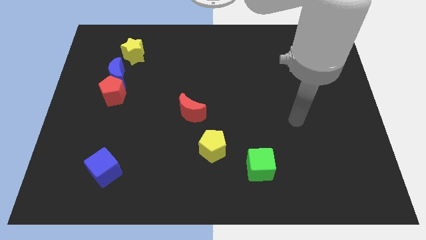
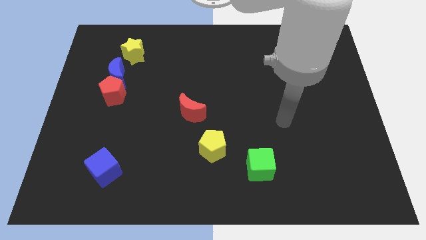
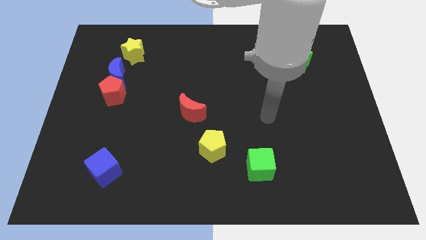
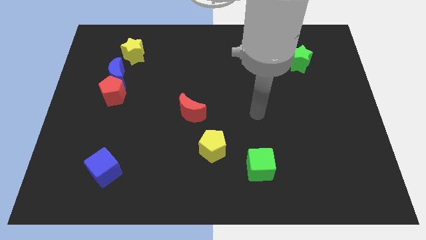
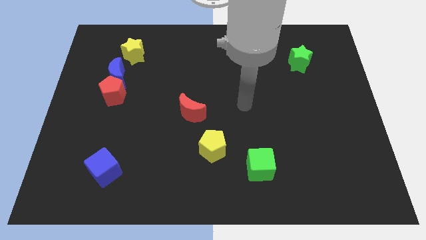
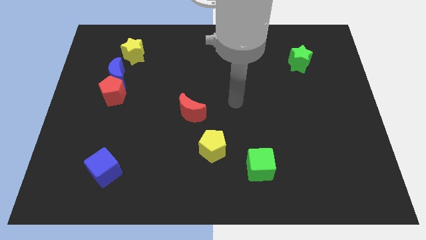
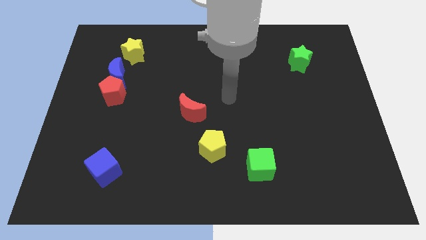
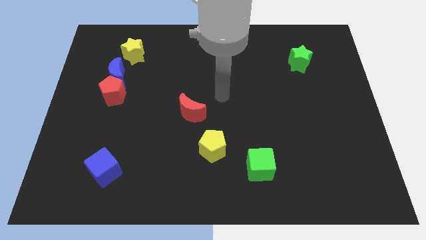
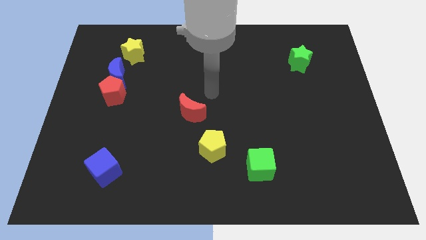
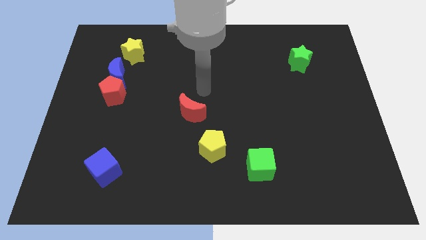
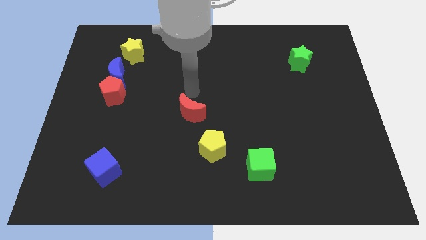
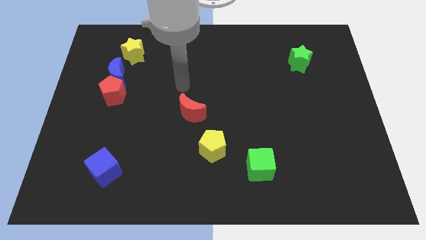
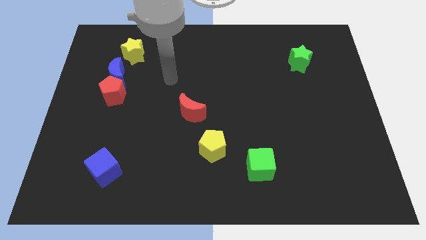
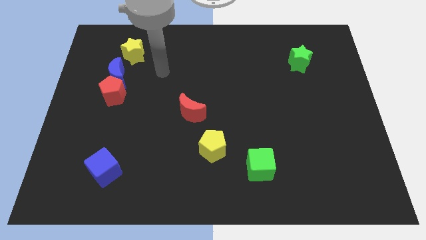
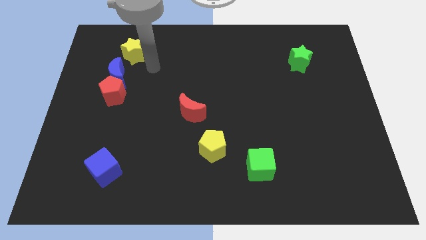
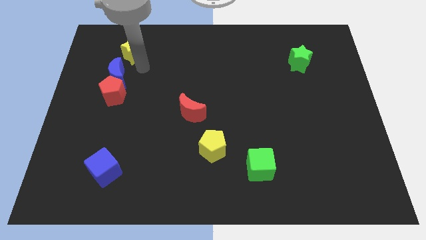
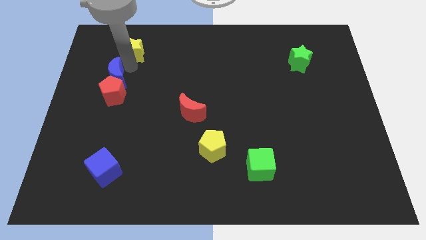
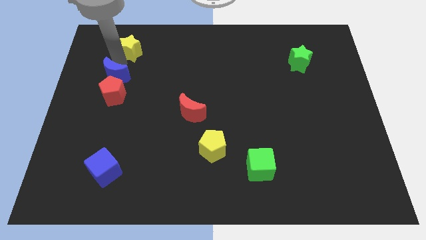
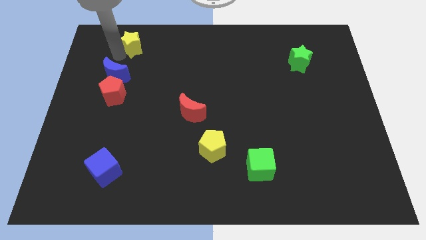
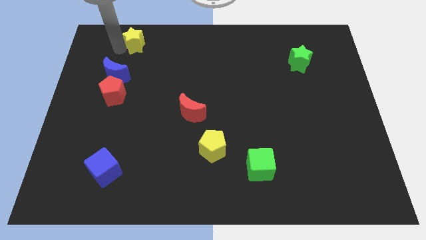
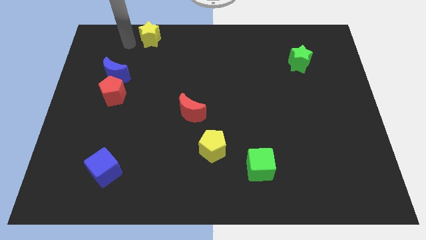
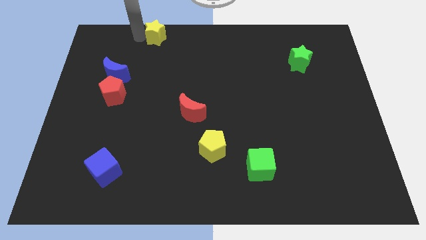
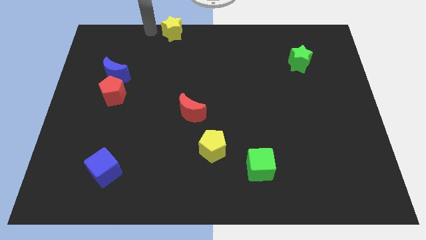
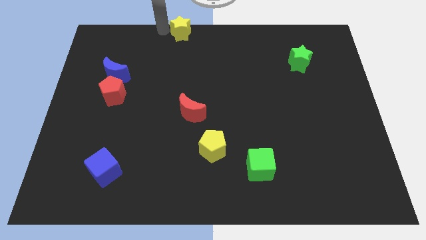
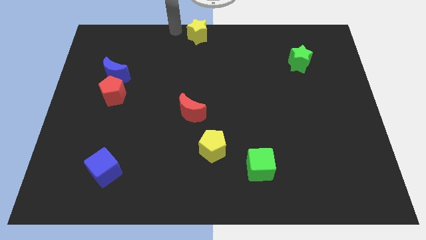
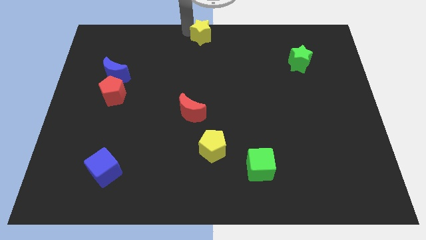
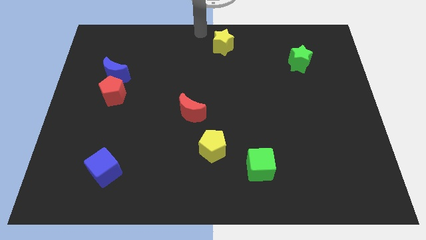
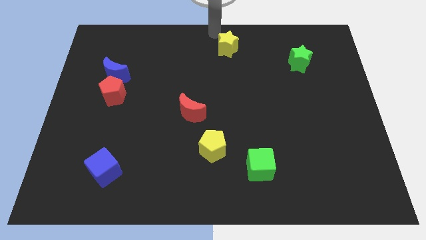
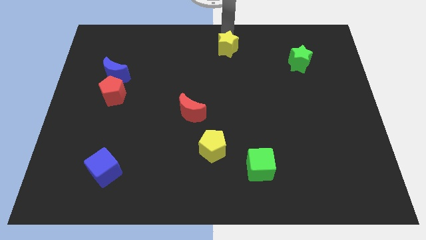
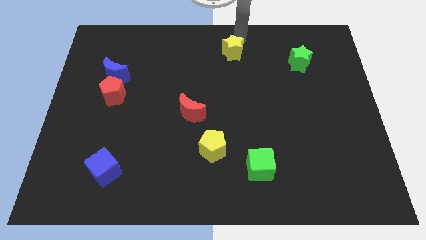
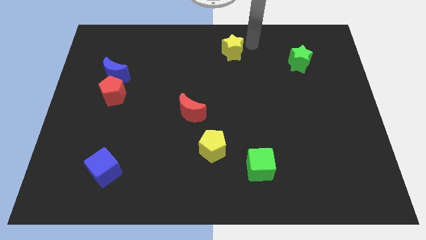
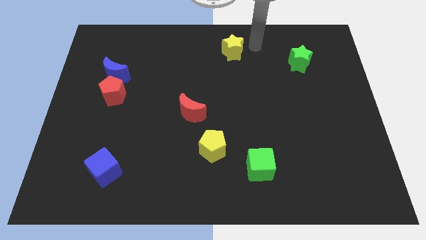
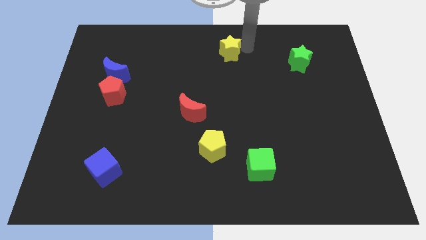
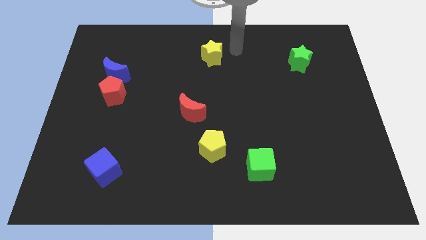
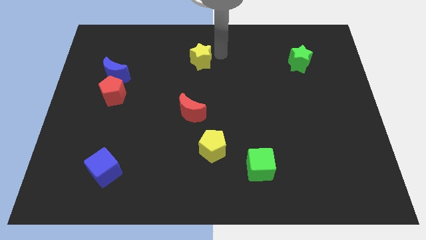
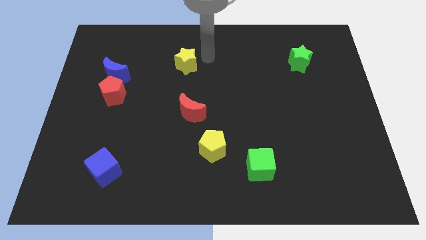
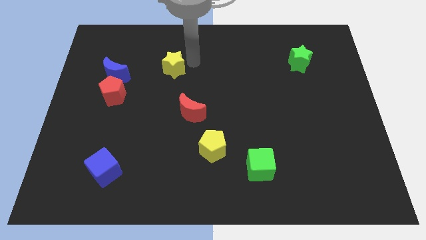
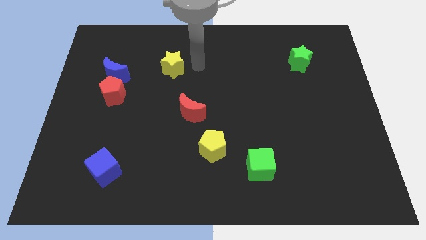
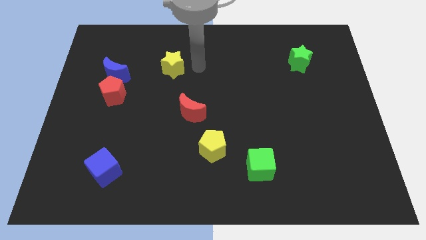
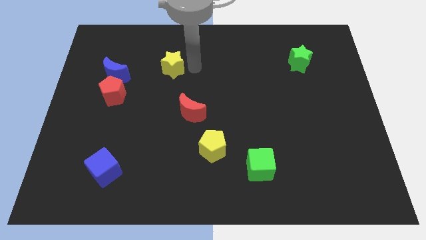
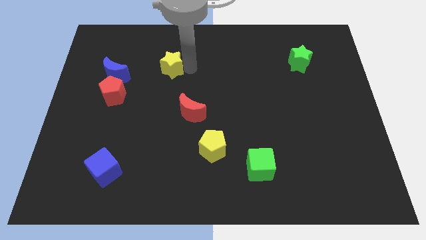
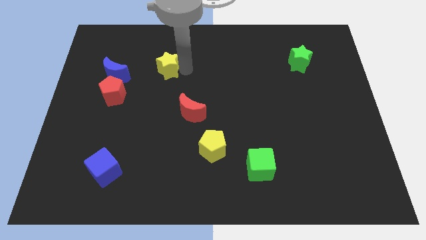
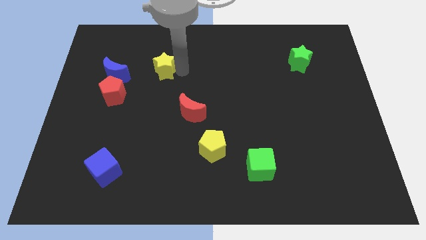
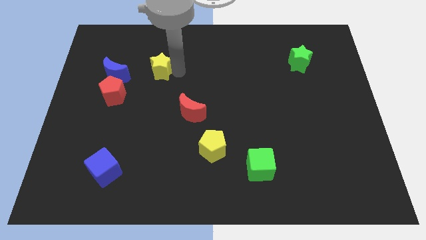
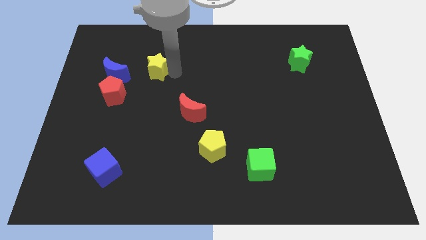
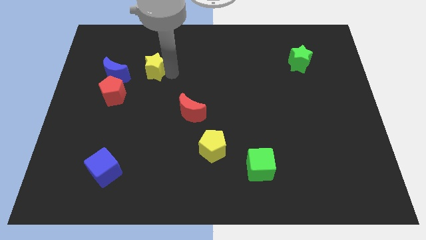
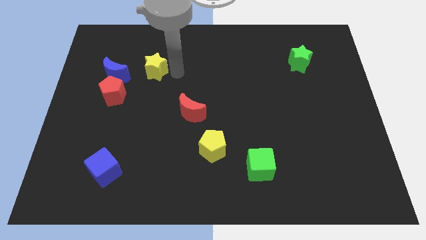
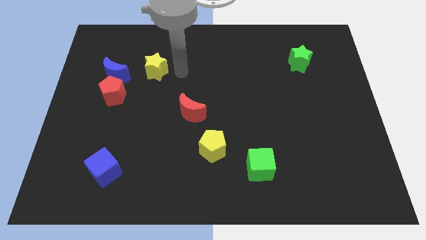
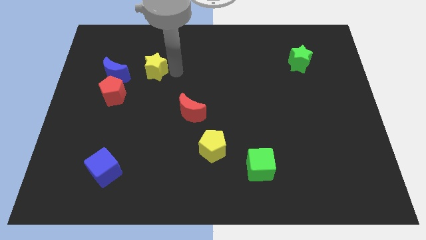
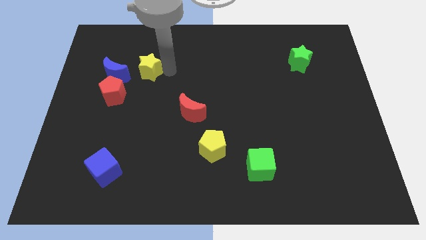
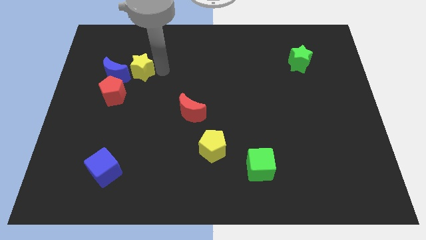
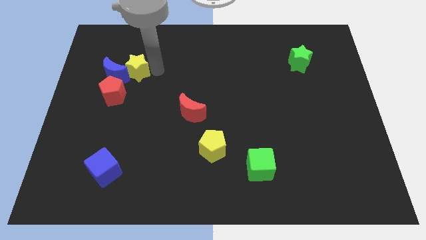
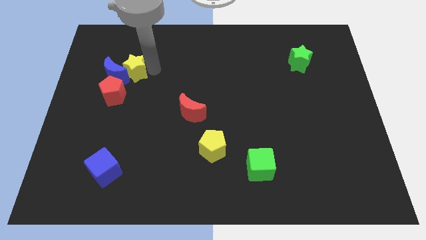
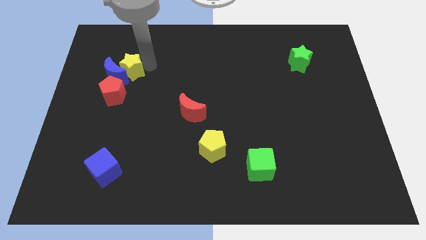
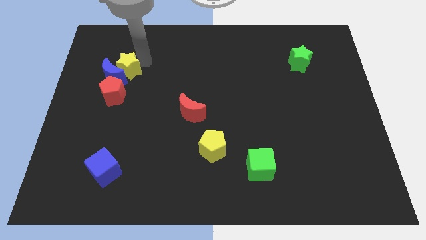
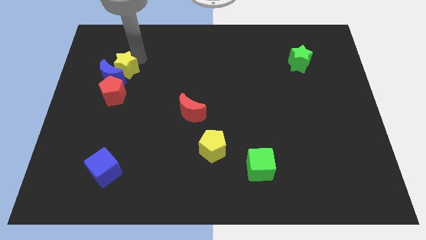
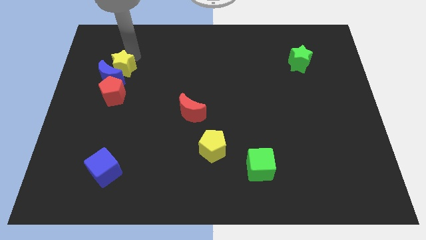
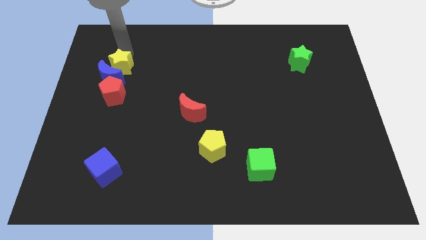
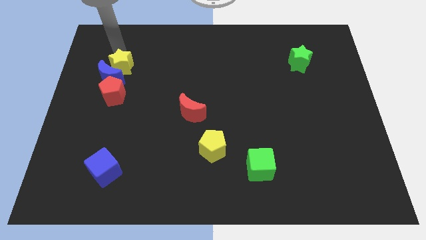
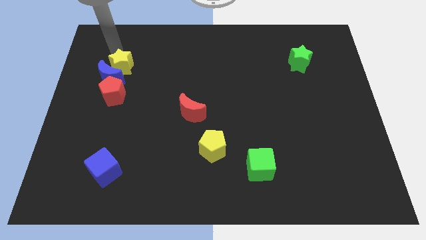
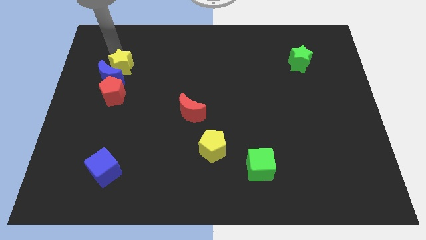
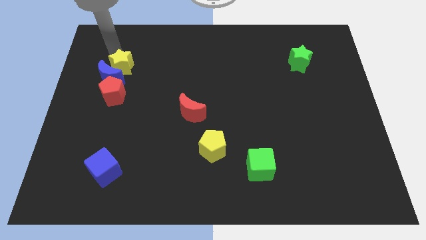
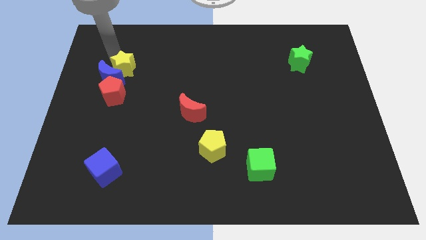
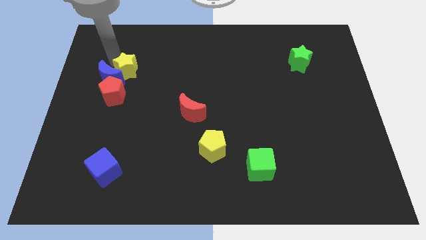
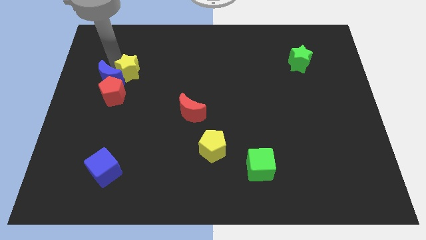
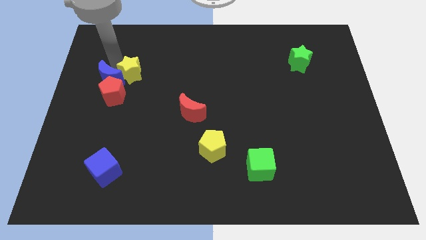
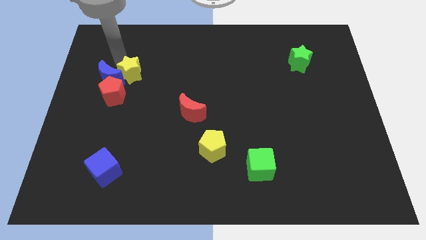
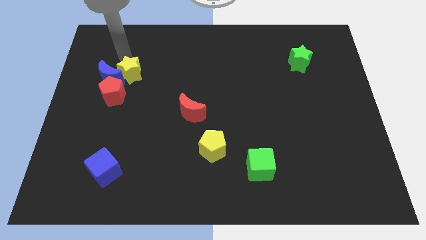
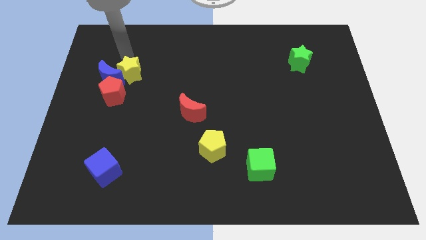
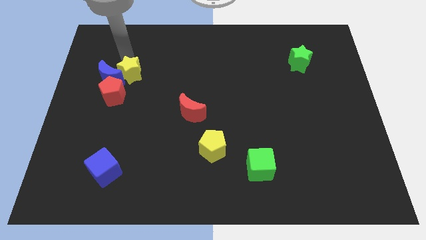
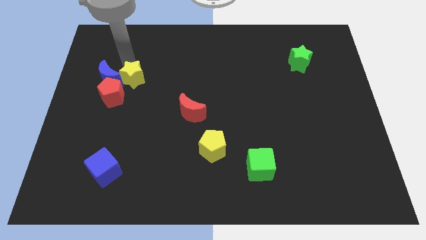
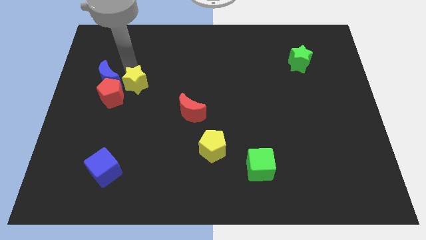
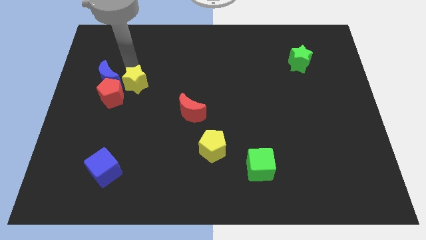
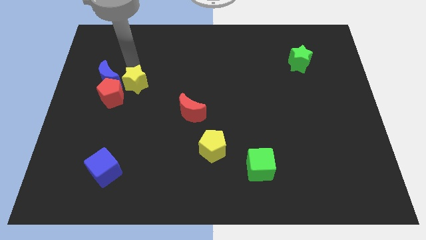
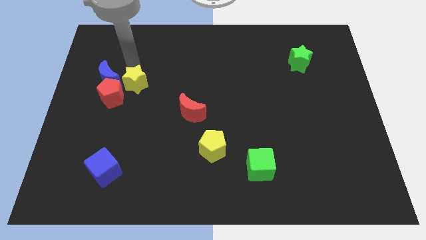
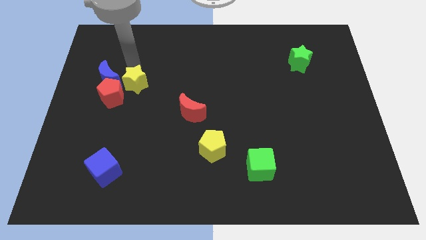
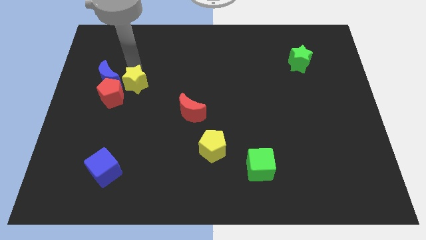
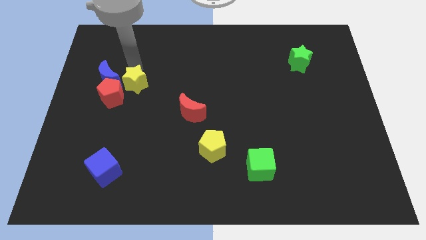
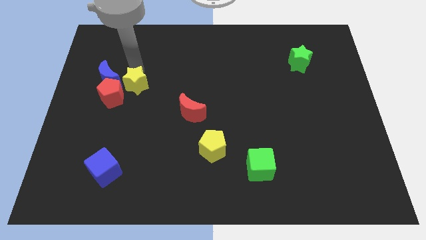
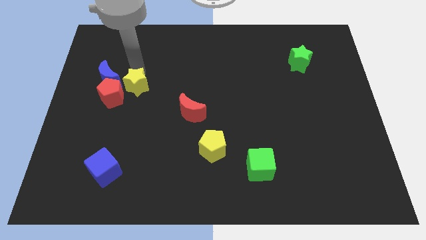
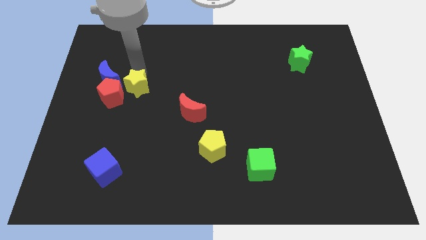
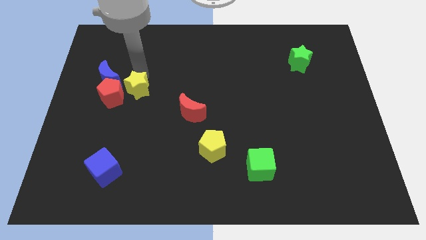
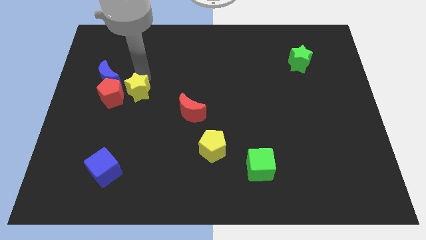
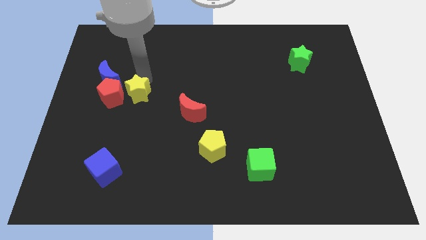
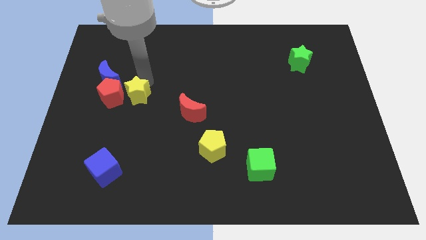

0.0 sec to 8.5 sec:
push the yellow star diagonally down and to the right of the red pentagon
